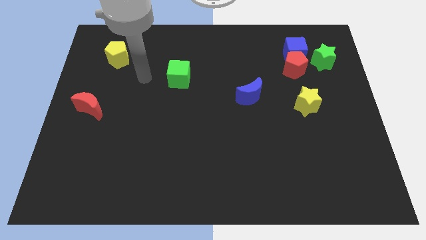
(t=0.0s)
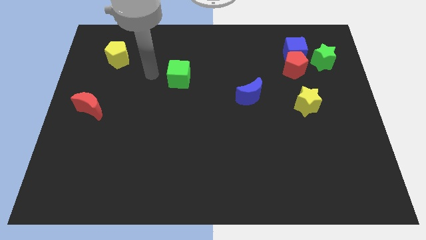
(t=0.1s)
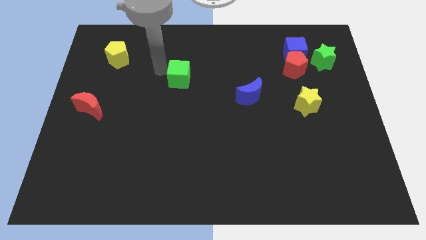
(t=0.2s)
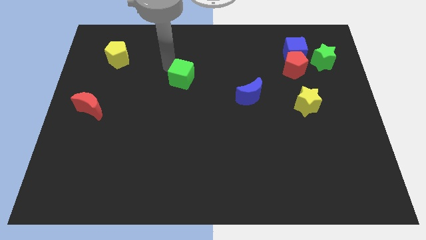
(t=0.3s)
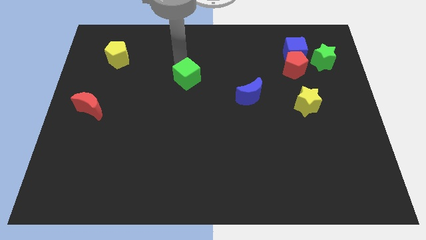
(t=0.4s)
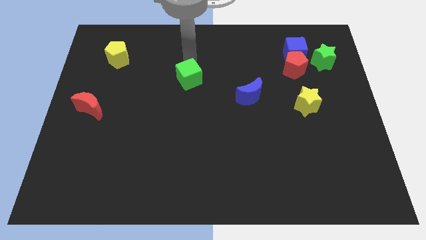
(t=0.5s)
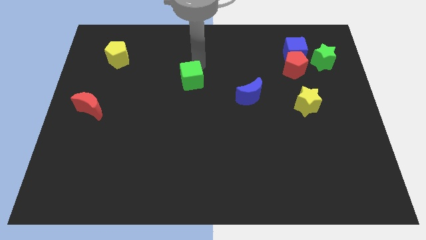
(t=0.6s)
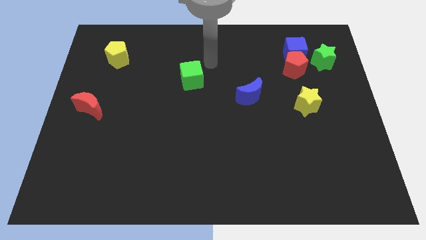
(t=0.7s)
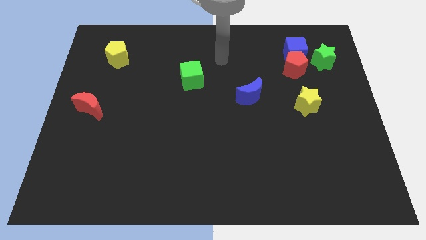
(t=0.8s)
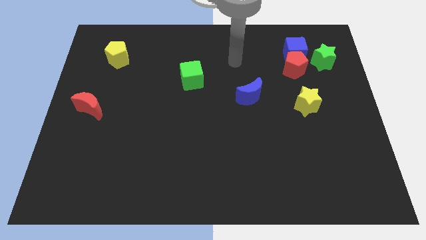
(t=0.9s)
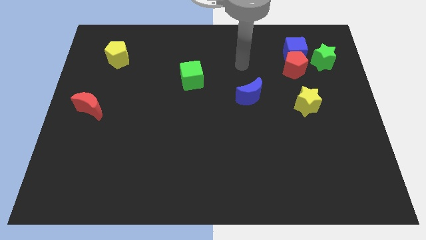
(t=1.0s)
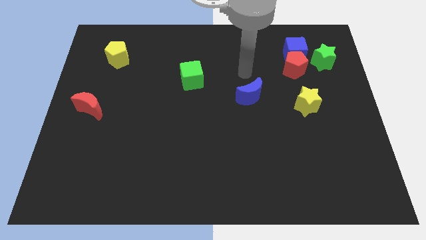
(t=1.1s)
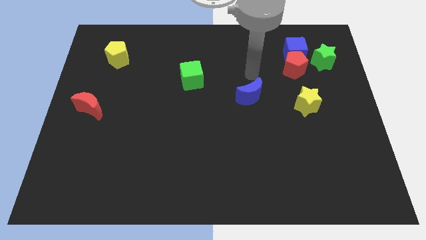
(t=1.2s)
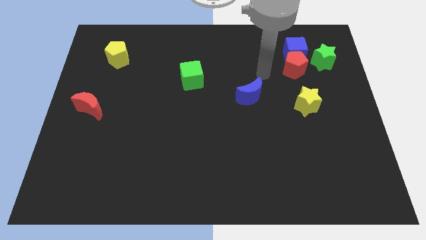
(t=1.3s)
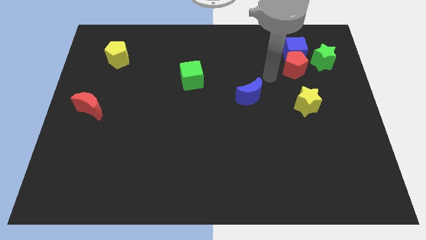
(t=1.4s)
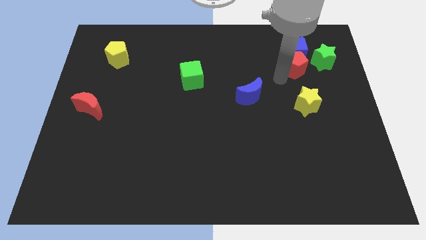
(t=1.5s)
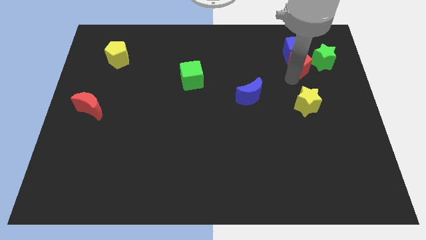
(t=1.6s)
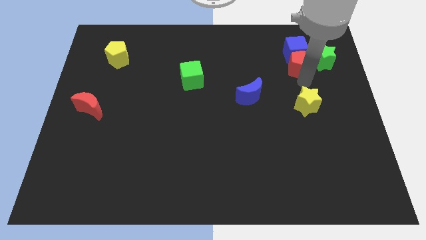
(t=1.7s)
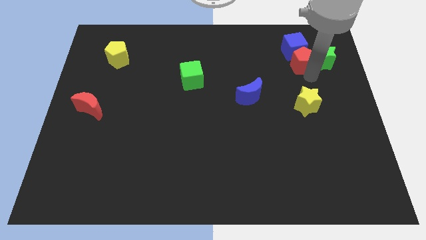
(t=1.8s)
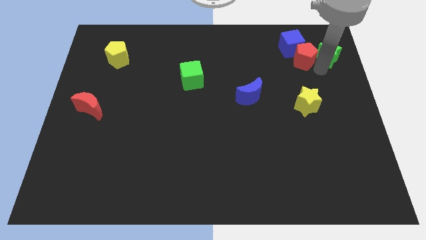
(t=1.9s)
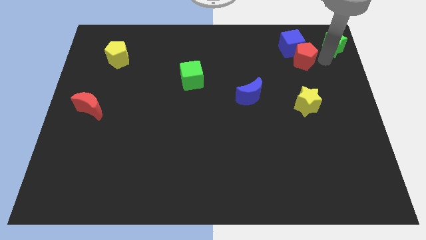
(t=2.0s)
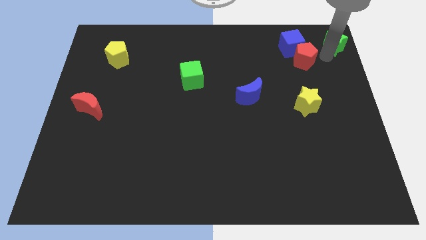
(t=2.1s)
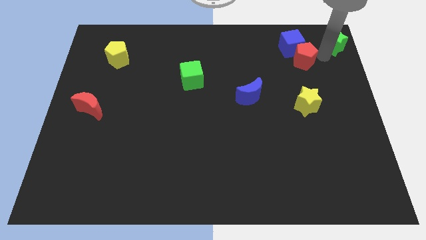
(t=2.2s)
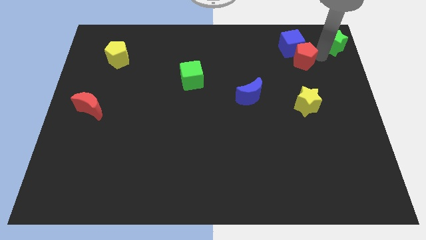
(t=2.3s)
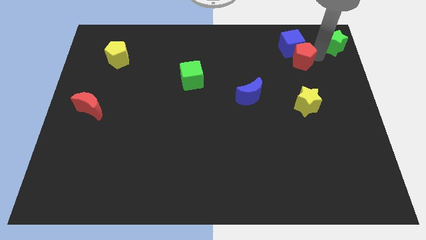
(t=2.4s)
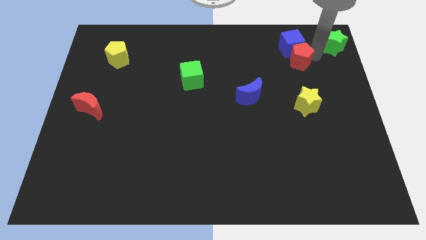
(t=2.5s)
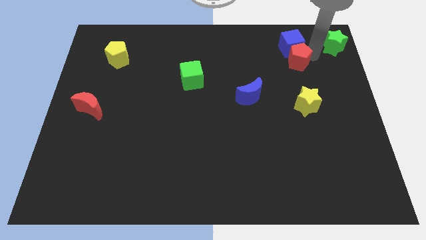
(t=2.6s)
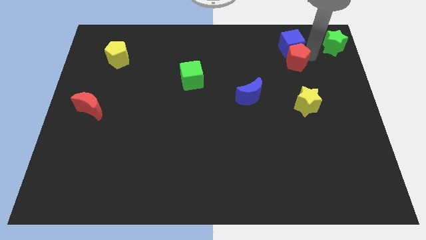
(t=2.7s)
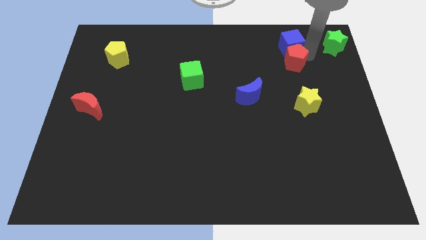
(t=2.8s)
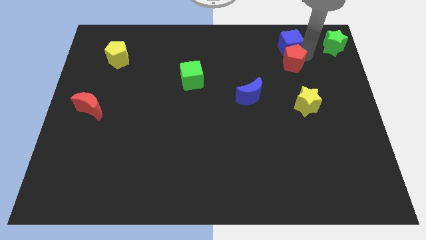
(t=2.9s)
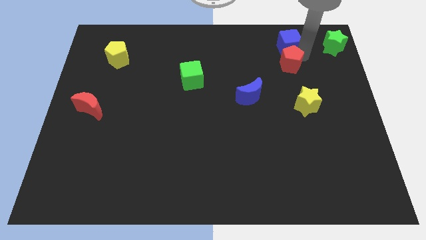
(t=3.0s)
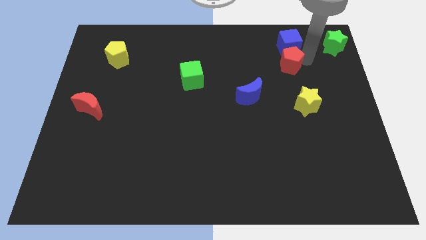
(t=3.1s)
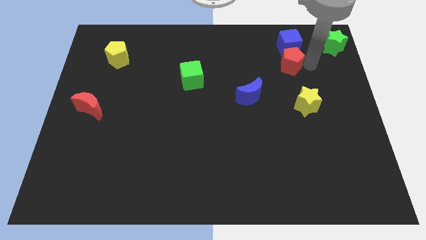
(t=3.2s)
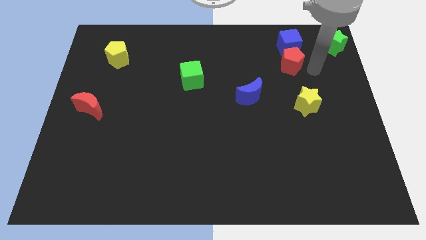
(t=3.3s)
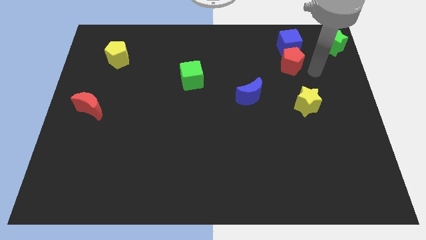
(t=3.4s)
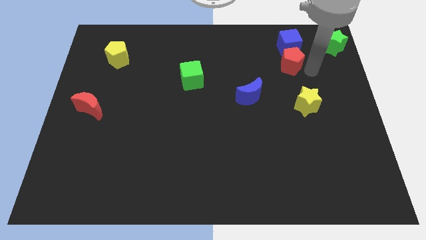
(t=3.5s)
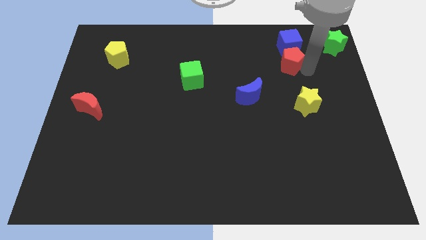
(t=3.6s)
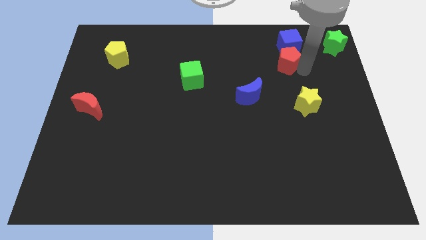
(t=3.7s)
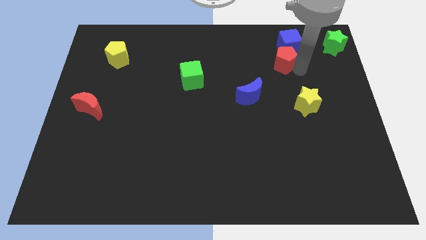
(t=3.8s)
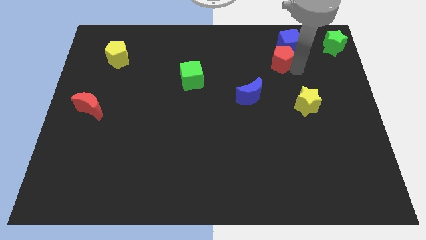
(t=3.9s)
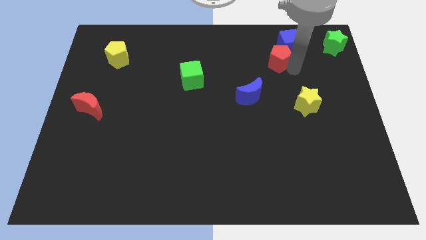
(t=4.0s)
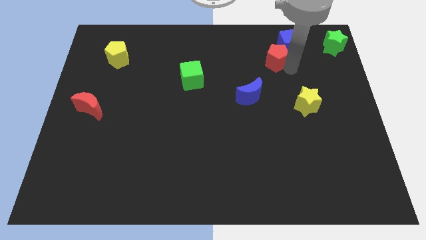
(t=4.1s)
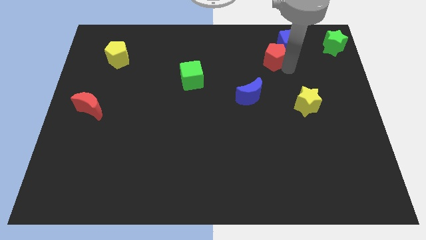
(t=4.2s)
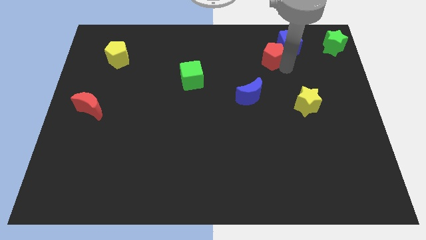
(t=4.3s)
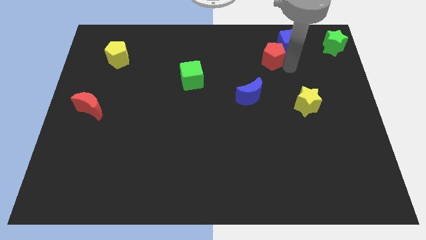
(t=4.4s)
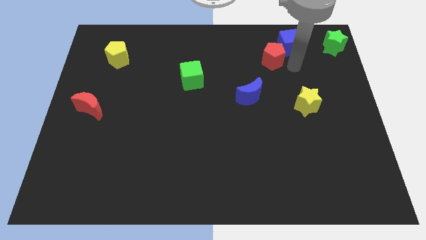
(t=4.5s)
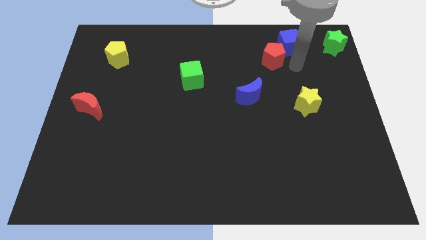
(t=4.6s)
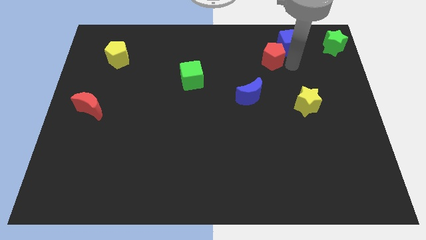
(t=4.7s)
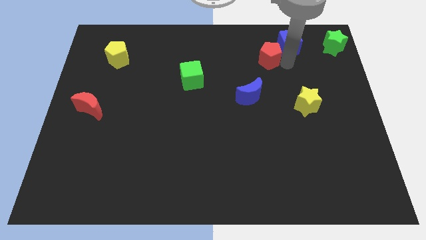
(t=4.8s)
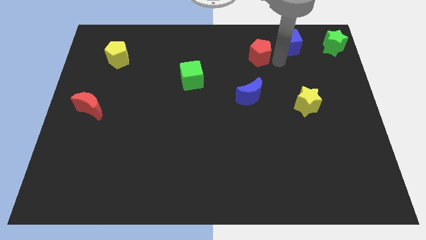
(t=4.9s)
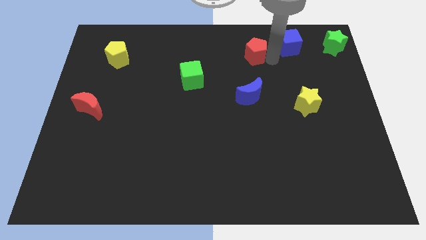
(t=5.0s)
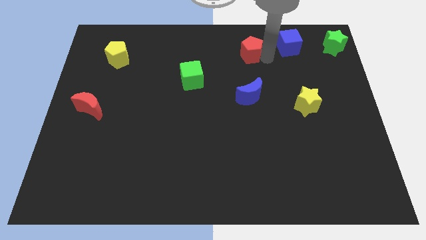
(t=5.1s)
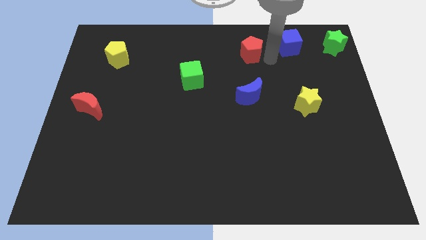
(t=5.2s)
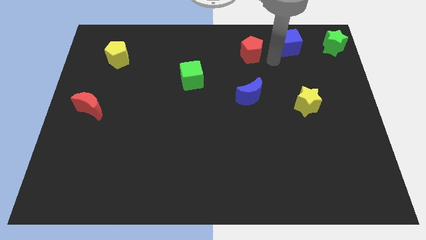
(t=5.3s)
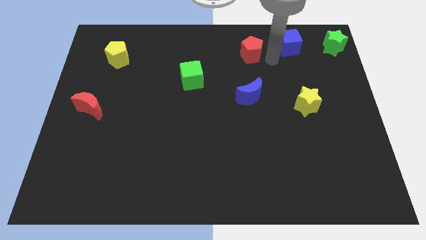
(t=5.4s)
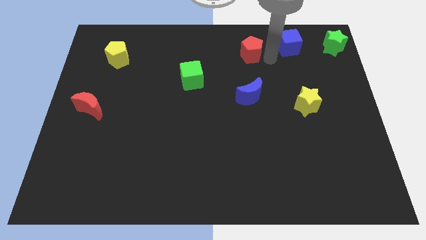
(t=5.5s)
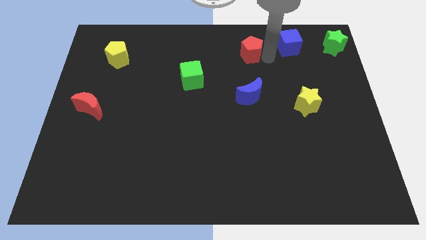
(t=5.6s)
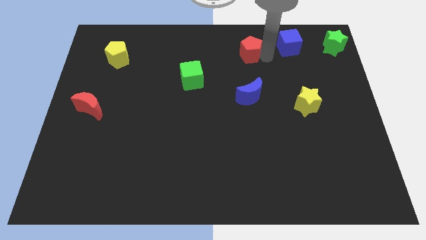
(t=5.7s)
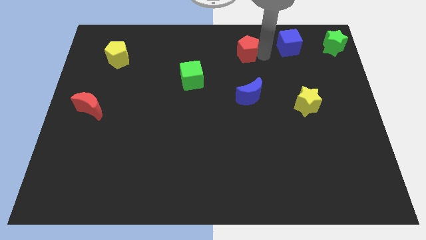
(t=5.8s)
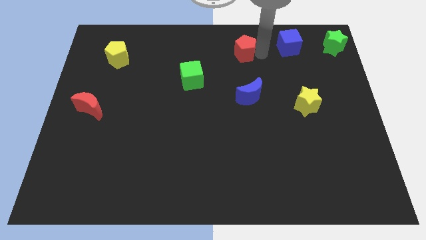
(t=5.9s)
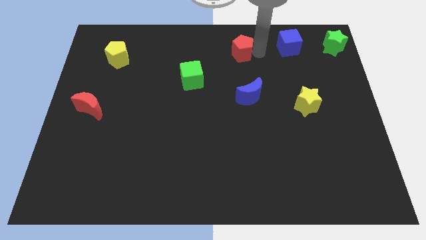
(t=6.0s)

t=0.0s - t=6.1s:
push the red pentagon to the top
